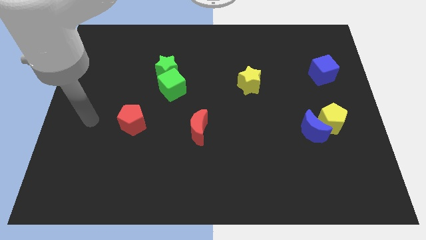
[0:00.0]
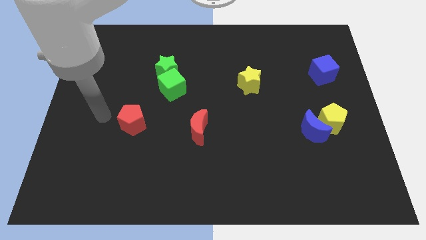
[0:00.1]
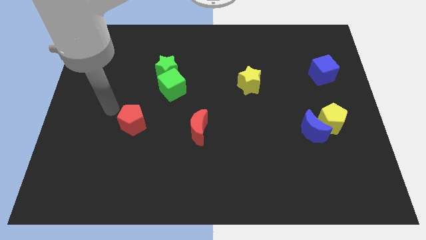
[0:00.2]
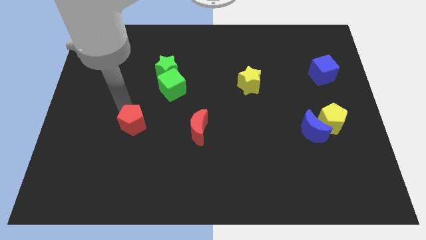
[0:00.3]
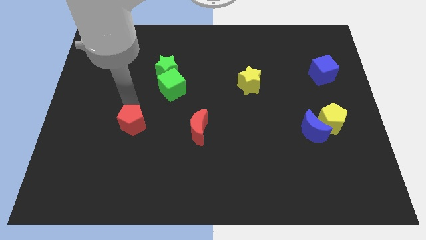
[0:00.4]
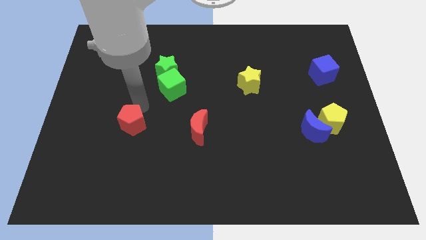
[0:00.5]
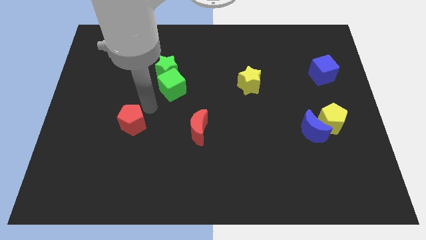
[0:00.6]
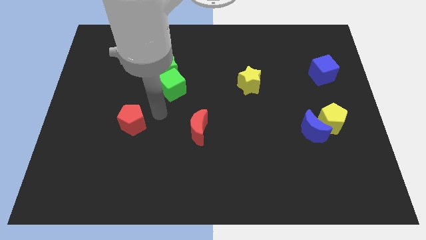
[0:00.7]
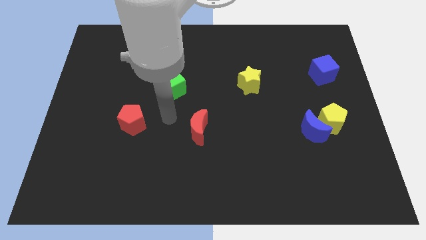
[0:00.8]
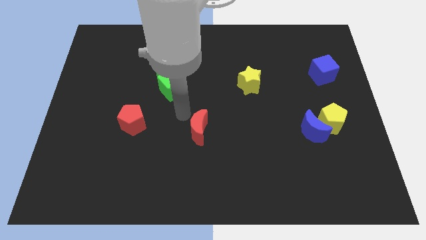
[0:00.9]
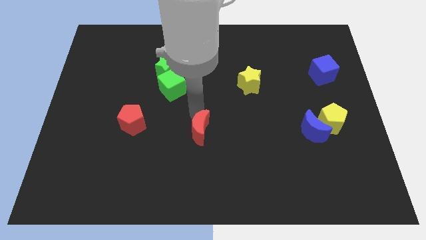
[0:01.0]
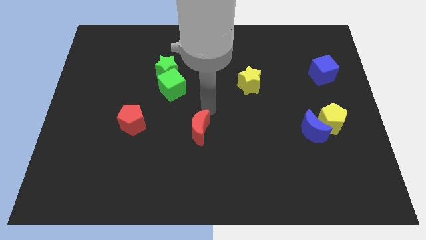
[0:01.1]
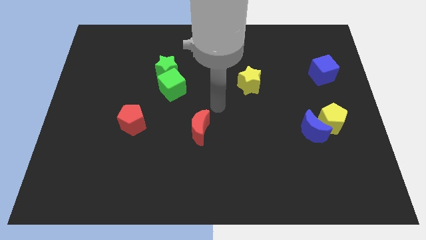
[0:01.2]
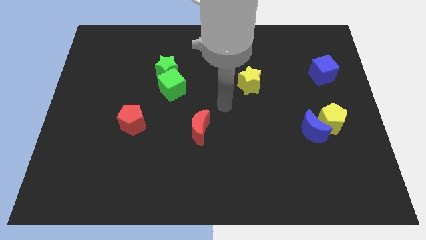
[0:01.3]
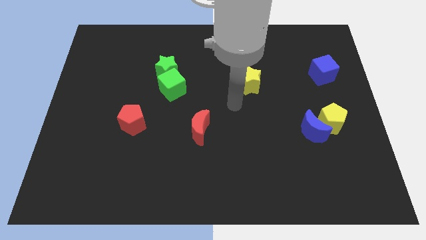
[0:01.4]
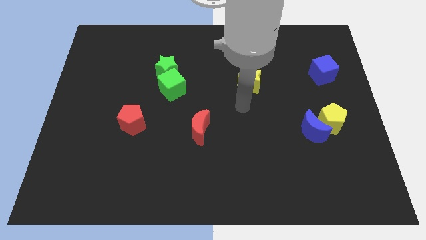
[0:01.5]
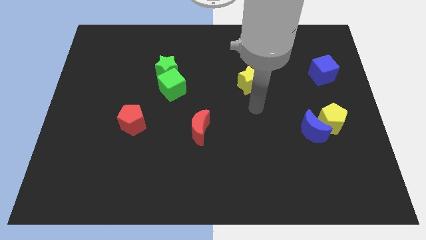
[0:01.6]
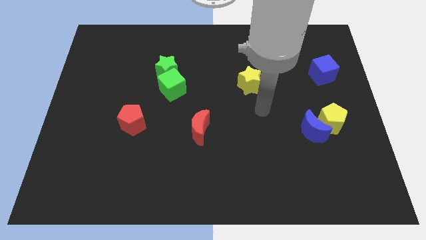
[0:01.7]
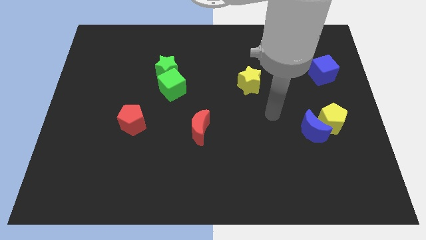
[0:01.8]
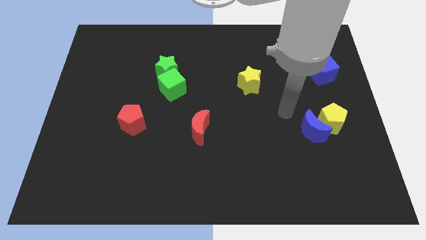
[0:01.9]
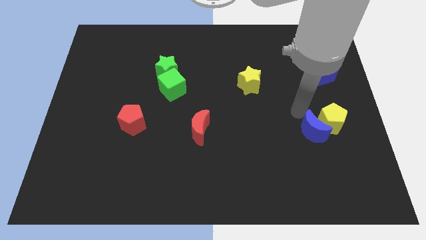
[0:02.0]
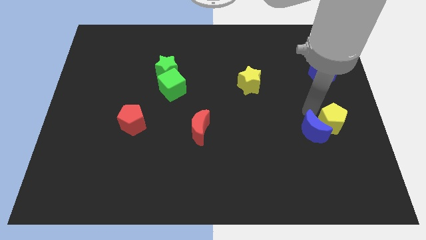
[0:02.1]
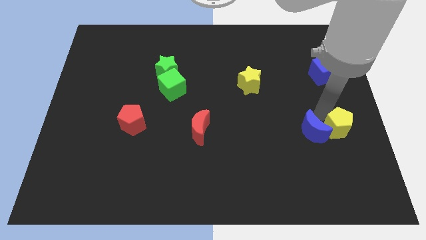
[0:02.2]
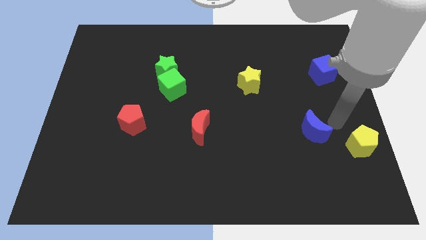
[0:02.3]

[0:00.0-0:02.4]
pull the blue moon apart from the yellow pentagon

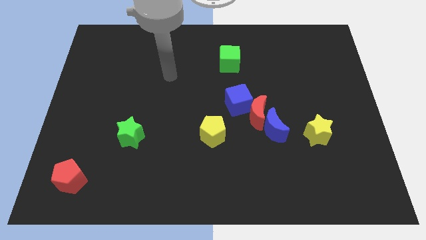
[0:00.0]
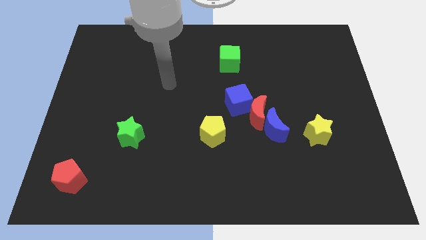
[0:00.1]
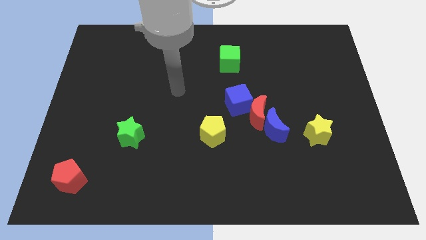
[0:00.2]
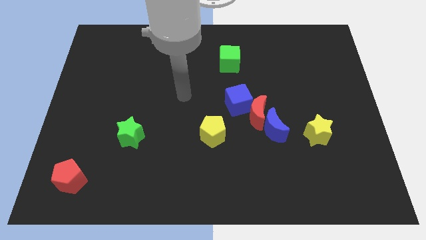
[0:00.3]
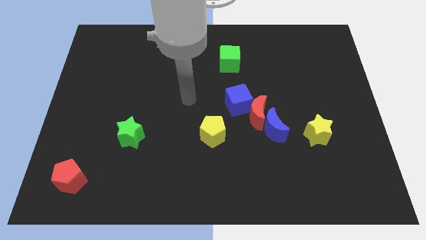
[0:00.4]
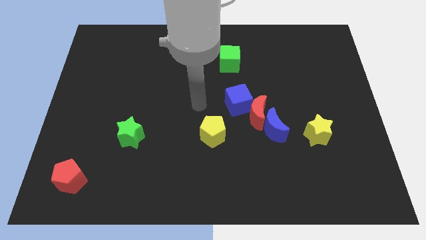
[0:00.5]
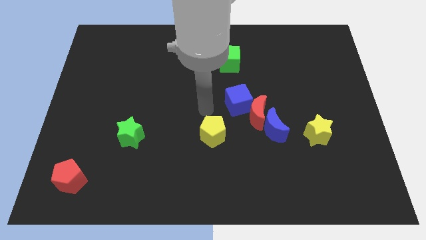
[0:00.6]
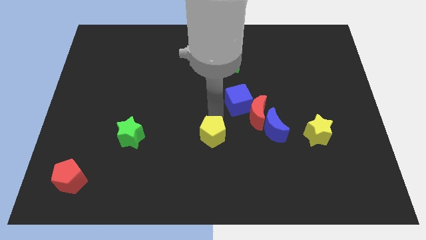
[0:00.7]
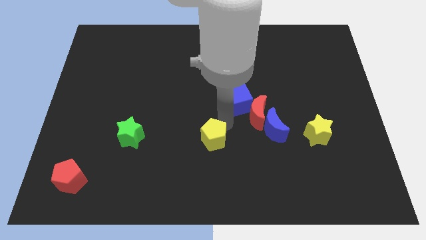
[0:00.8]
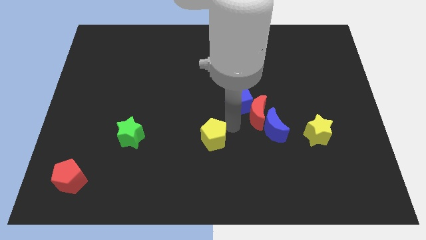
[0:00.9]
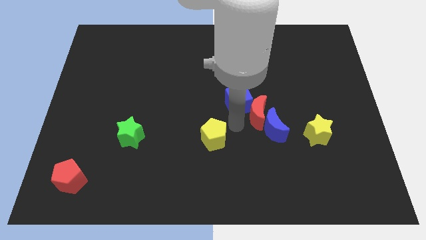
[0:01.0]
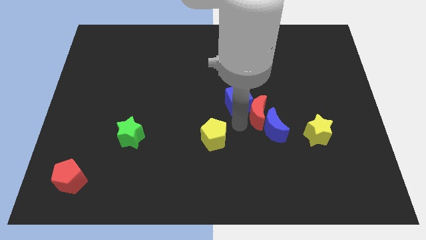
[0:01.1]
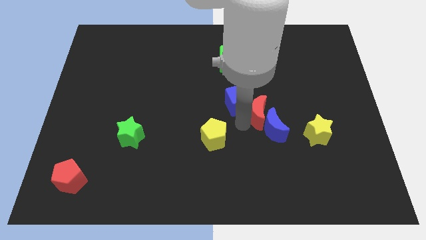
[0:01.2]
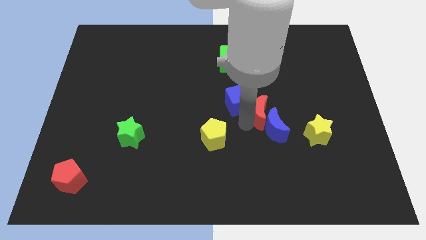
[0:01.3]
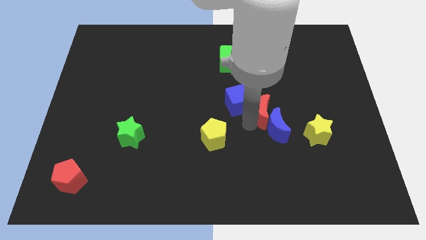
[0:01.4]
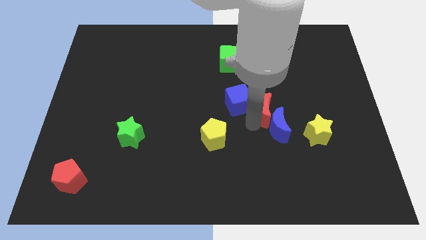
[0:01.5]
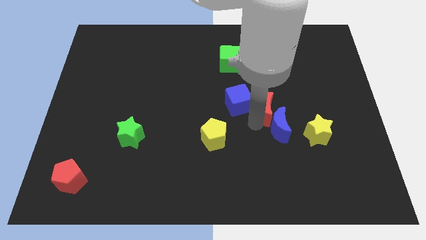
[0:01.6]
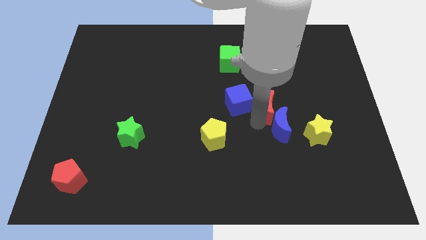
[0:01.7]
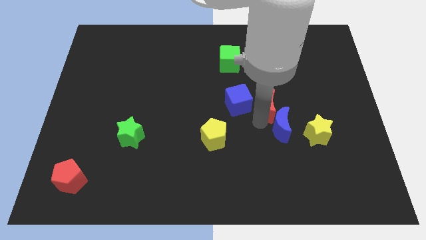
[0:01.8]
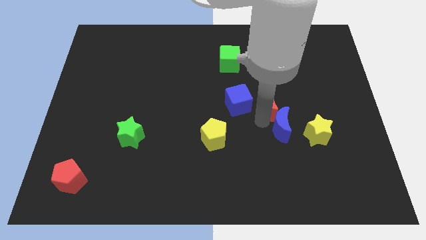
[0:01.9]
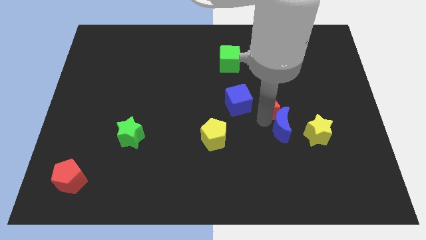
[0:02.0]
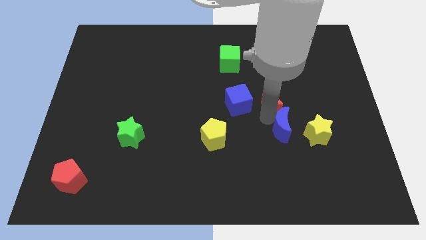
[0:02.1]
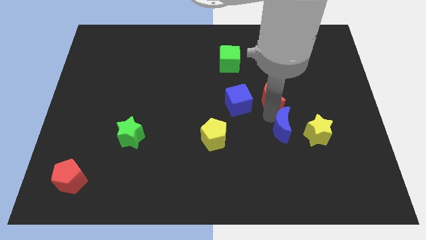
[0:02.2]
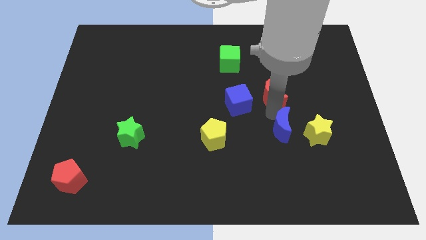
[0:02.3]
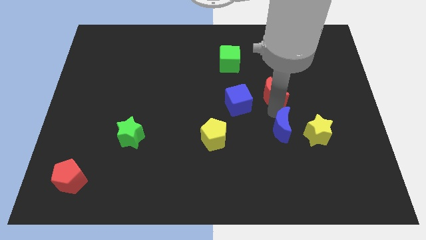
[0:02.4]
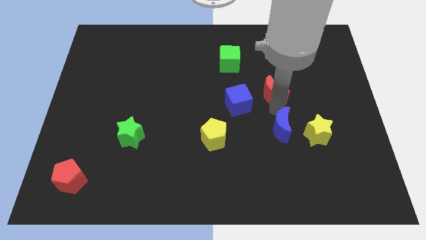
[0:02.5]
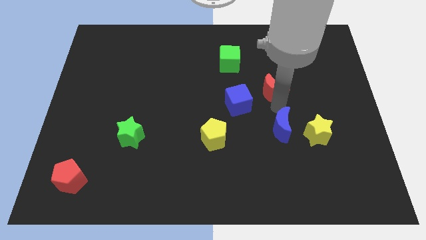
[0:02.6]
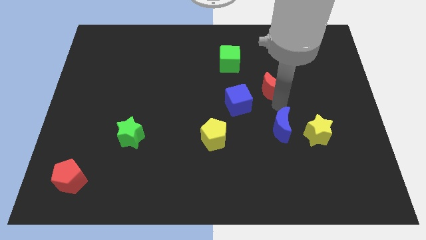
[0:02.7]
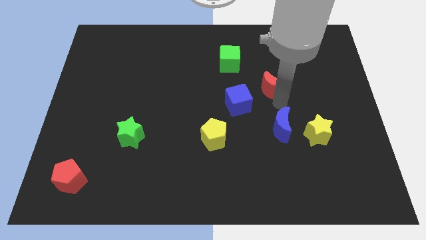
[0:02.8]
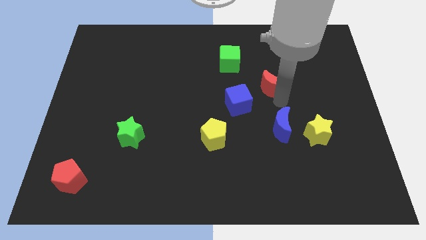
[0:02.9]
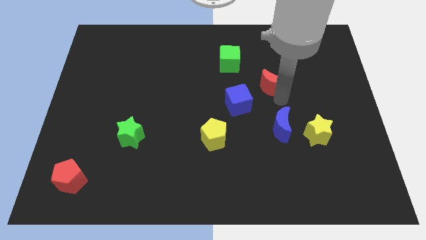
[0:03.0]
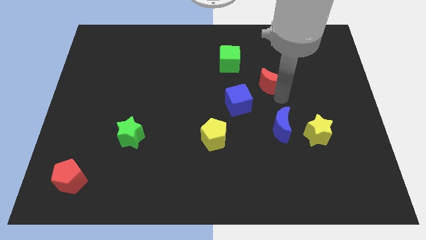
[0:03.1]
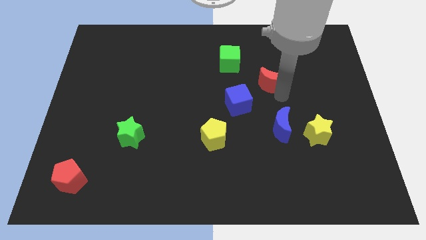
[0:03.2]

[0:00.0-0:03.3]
separate the red moon from the blue moon and blue cube

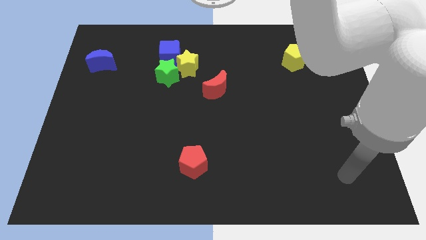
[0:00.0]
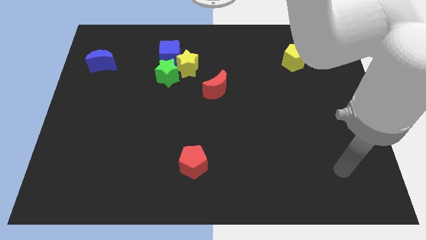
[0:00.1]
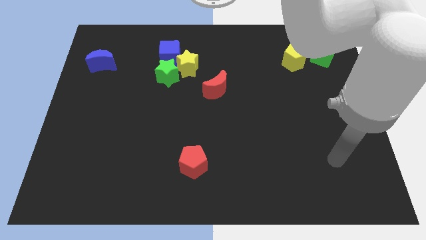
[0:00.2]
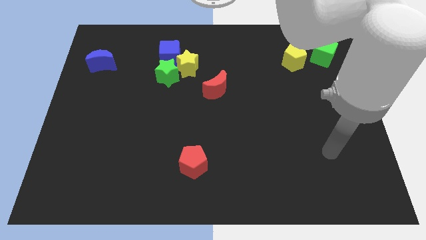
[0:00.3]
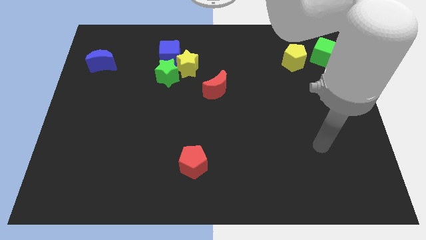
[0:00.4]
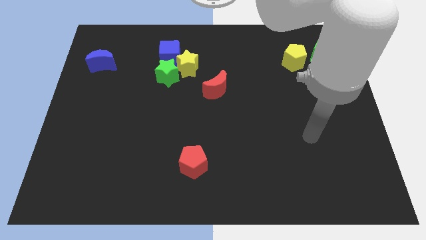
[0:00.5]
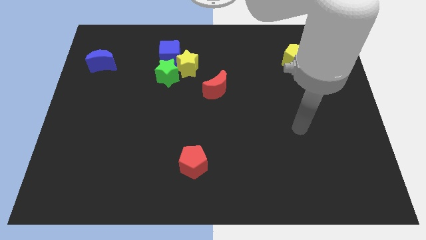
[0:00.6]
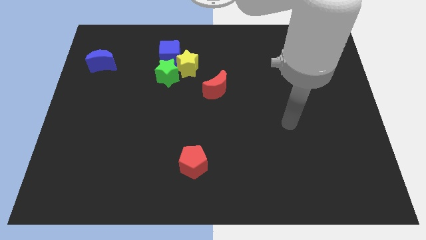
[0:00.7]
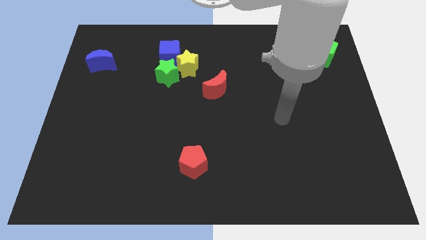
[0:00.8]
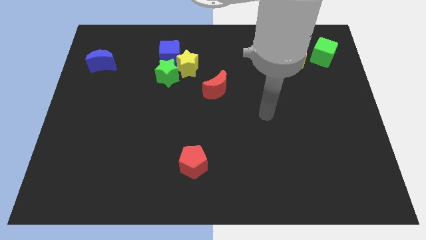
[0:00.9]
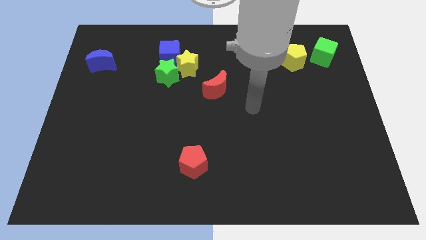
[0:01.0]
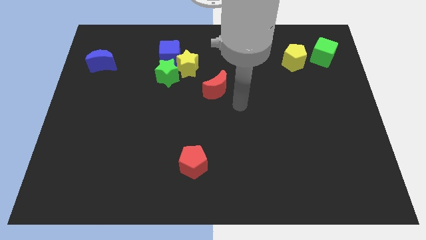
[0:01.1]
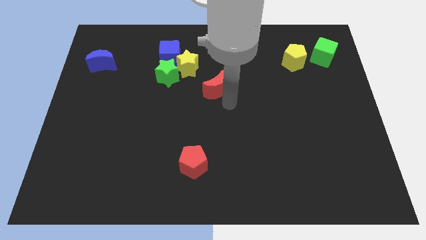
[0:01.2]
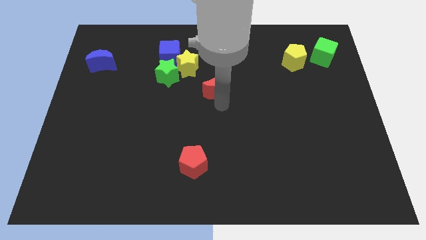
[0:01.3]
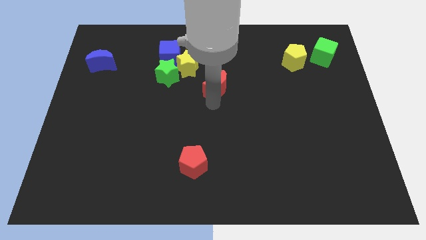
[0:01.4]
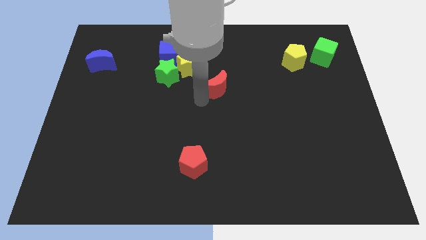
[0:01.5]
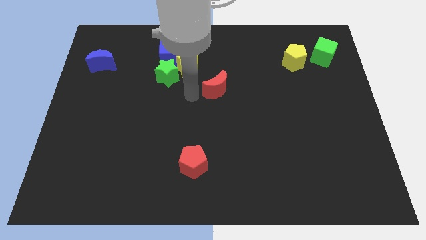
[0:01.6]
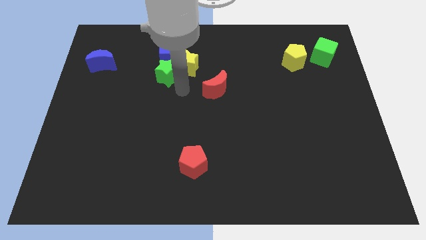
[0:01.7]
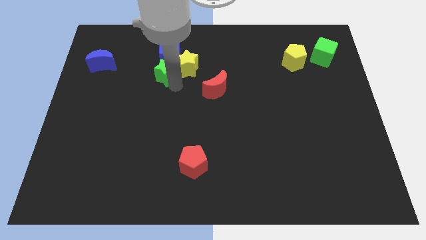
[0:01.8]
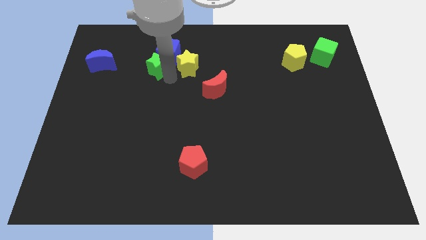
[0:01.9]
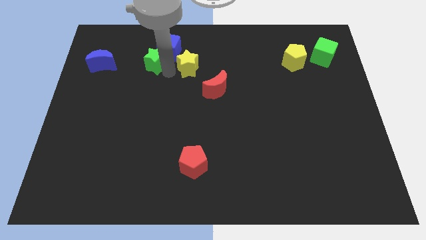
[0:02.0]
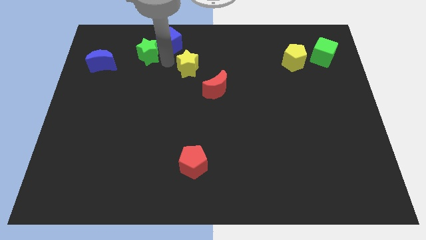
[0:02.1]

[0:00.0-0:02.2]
separate the yellow star from the green star and blue cube

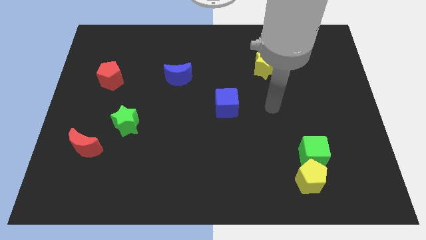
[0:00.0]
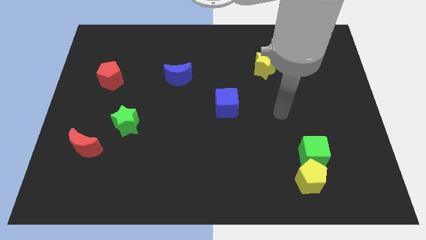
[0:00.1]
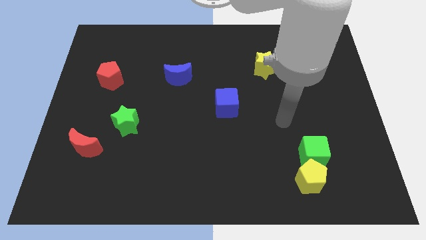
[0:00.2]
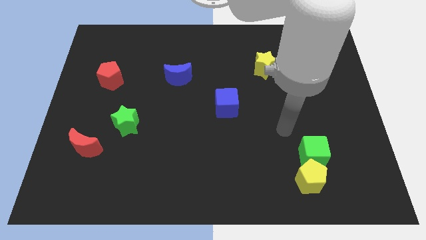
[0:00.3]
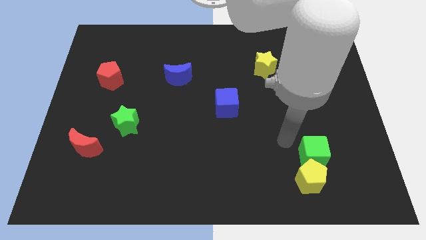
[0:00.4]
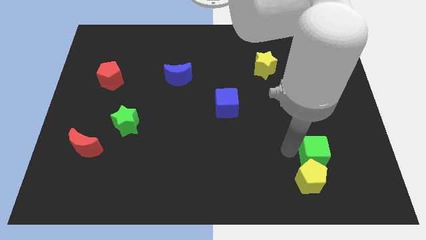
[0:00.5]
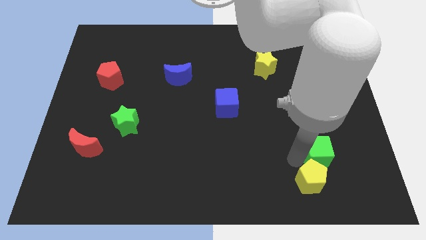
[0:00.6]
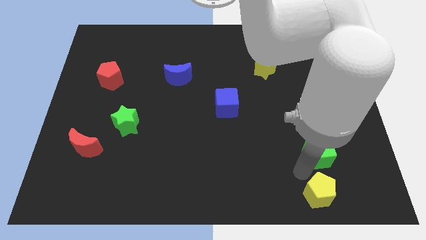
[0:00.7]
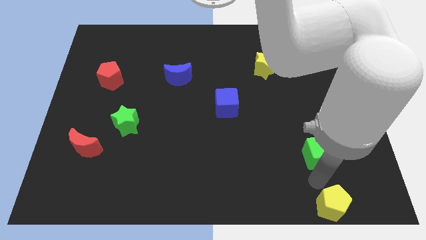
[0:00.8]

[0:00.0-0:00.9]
pull the green cube apart from the yellow pentagon

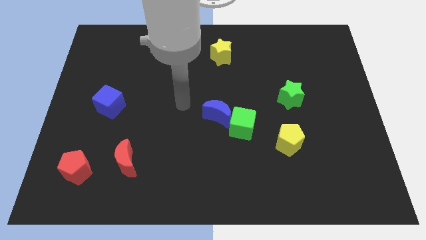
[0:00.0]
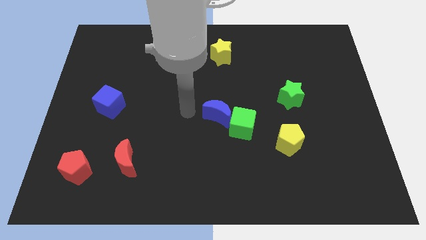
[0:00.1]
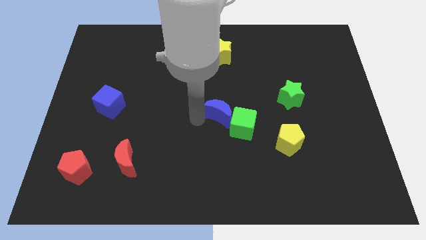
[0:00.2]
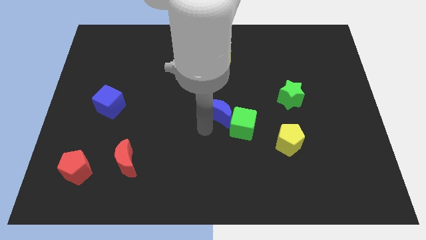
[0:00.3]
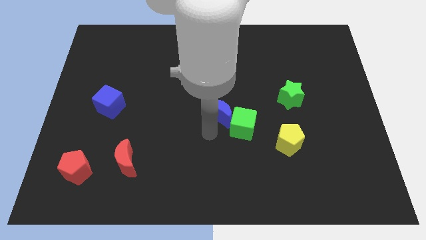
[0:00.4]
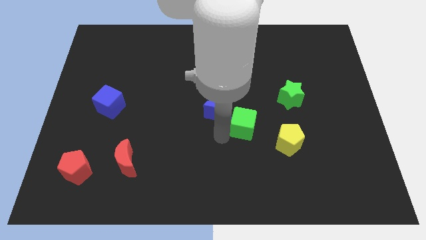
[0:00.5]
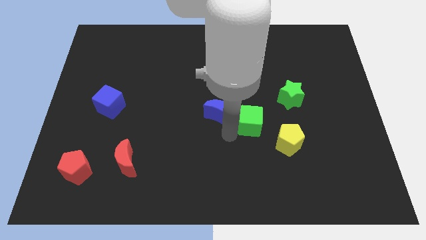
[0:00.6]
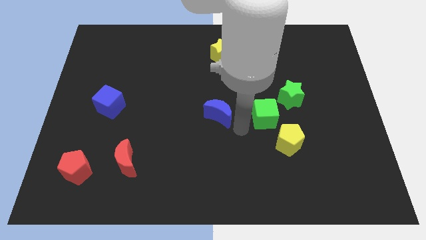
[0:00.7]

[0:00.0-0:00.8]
pull the blue moon apart from the green cube
